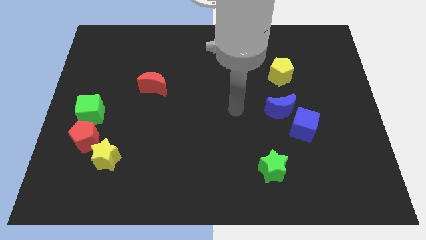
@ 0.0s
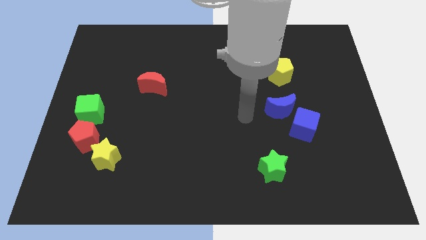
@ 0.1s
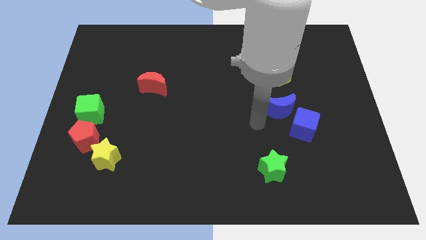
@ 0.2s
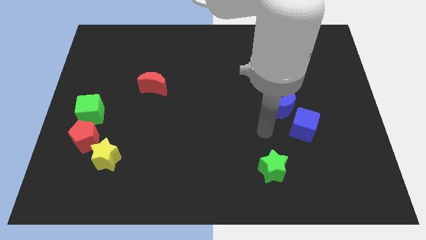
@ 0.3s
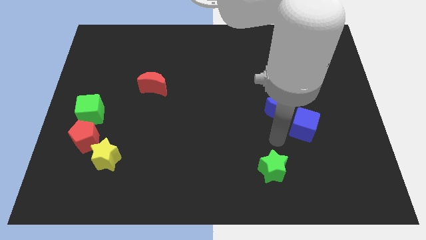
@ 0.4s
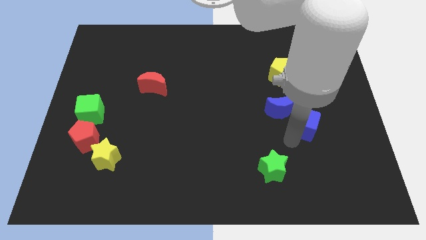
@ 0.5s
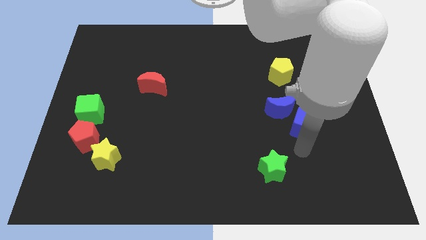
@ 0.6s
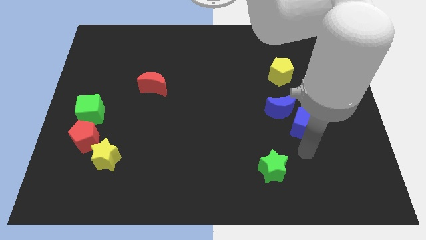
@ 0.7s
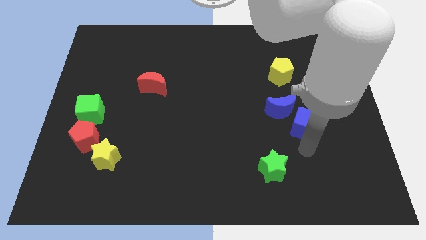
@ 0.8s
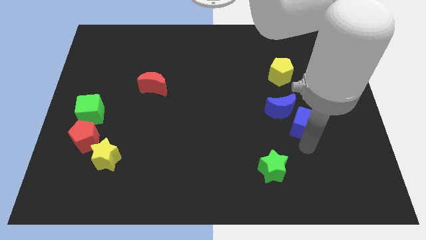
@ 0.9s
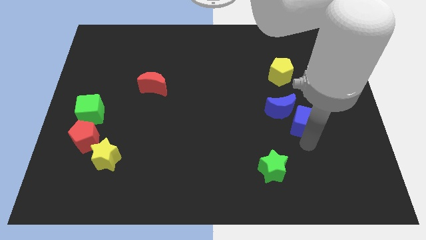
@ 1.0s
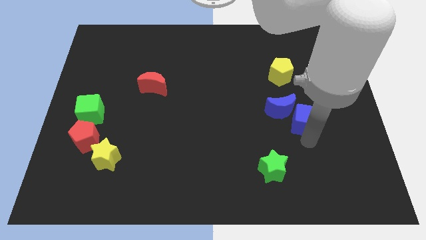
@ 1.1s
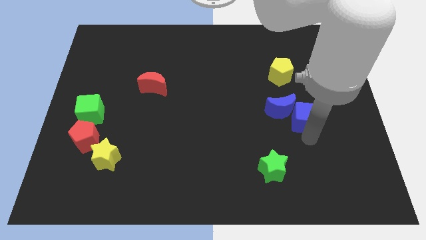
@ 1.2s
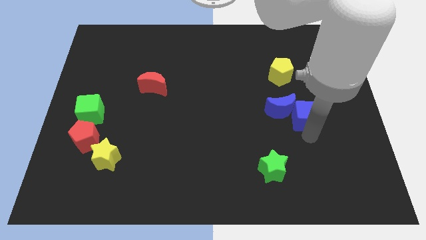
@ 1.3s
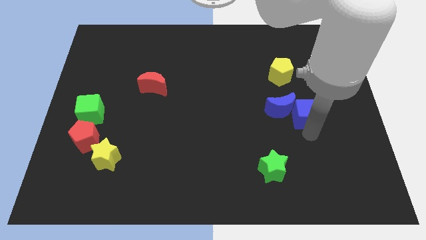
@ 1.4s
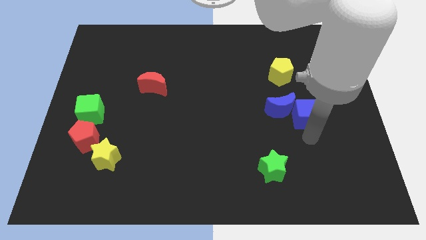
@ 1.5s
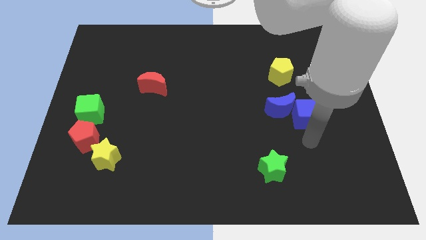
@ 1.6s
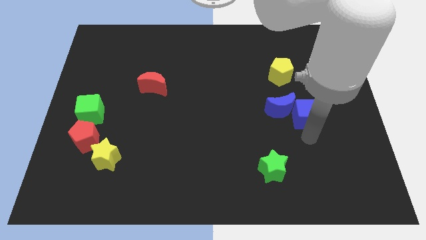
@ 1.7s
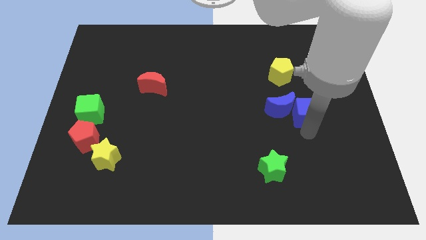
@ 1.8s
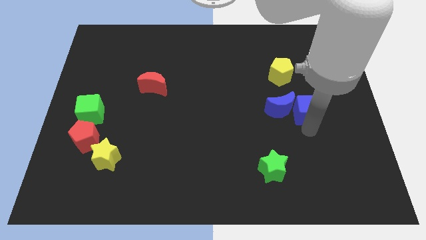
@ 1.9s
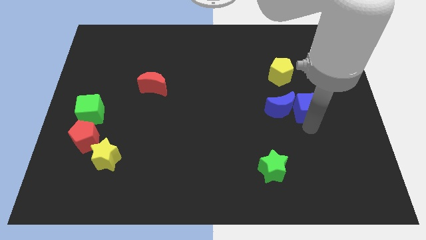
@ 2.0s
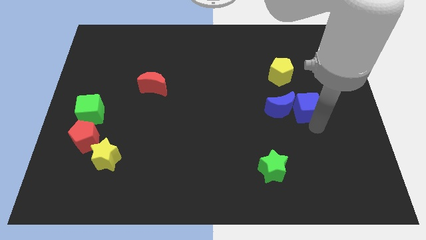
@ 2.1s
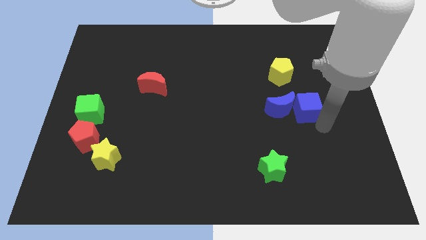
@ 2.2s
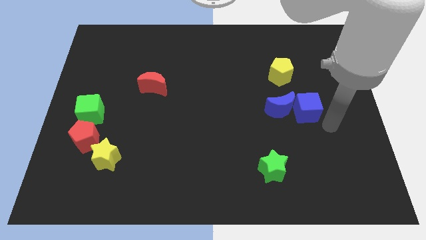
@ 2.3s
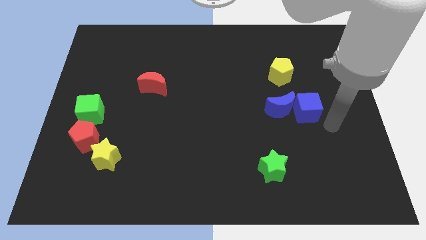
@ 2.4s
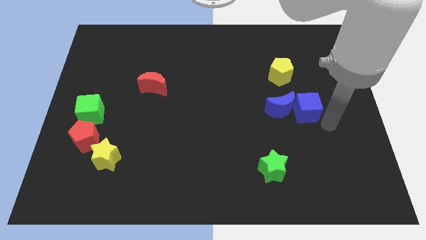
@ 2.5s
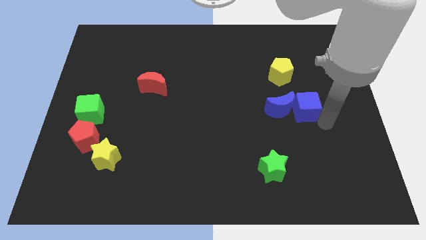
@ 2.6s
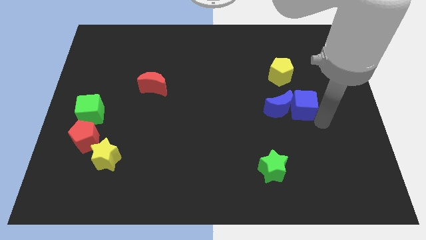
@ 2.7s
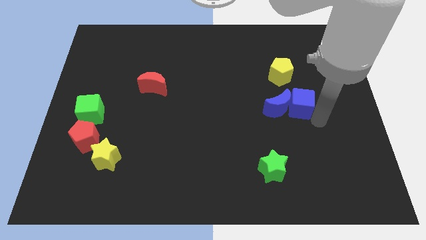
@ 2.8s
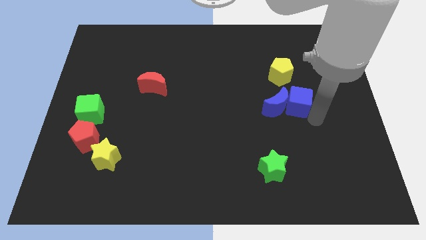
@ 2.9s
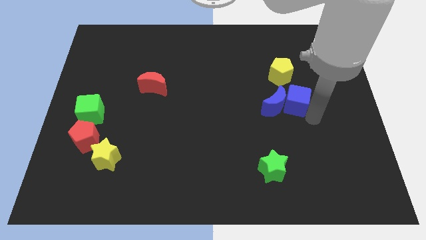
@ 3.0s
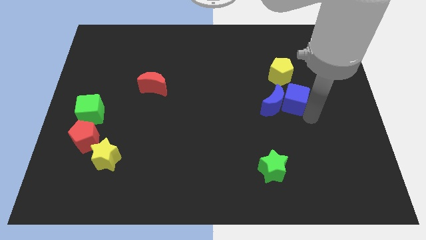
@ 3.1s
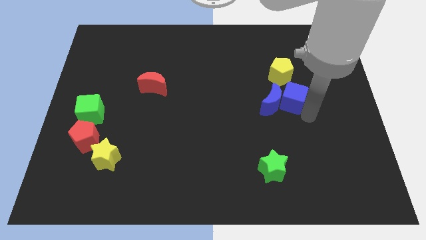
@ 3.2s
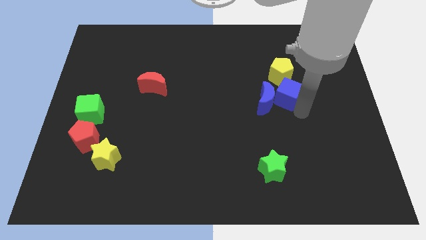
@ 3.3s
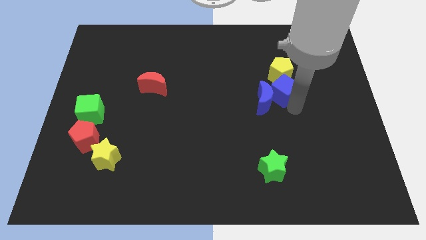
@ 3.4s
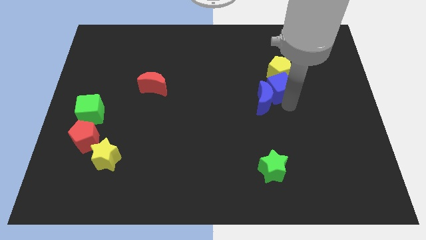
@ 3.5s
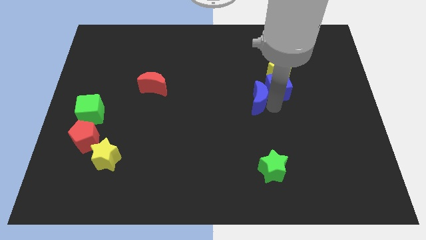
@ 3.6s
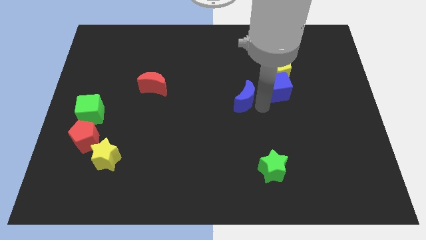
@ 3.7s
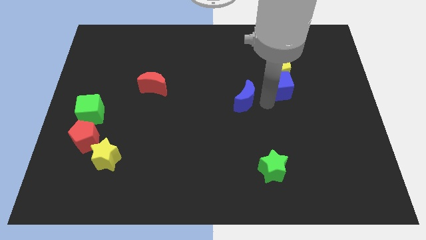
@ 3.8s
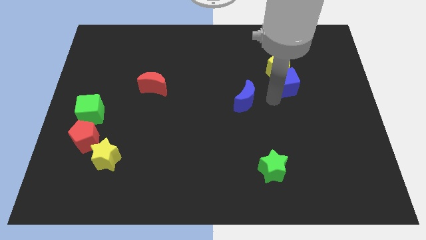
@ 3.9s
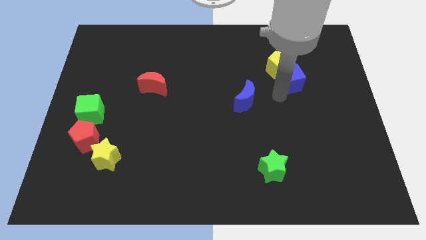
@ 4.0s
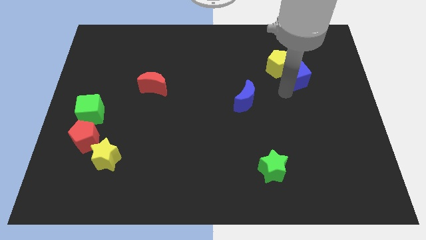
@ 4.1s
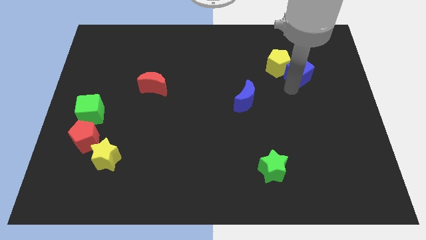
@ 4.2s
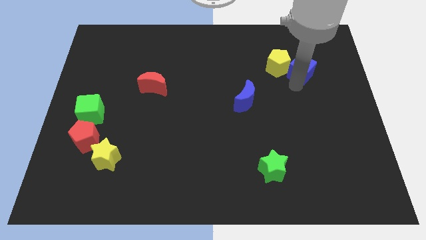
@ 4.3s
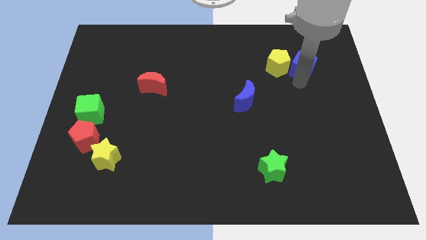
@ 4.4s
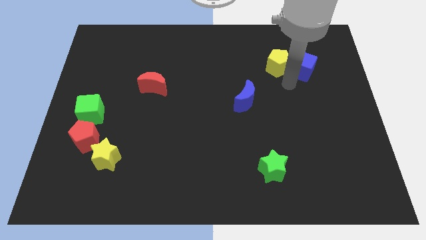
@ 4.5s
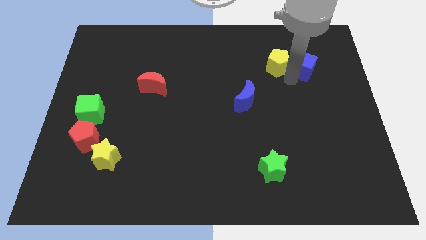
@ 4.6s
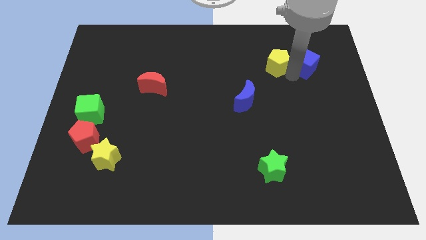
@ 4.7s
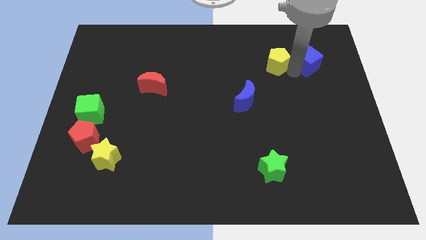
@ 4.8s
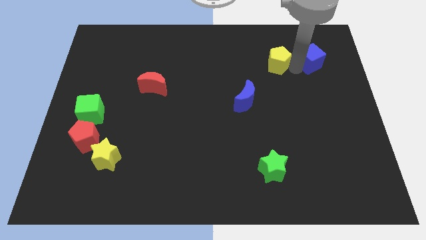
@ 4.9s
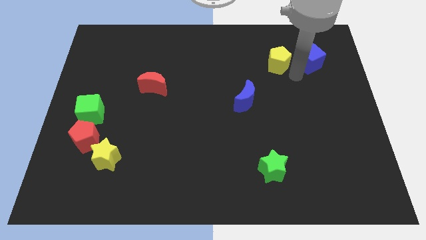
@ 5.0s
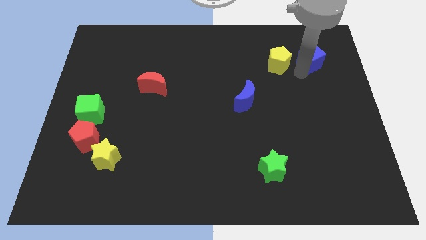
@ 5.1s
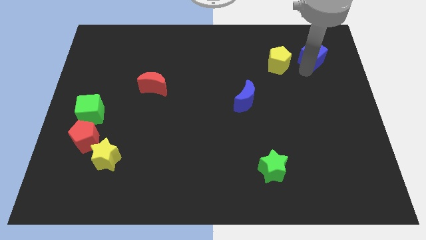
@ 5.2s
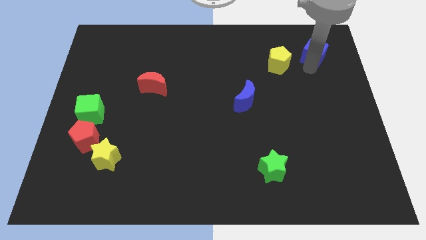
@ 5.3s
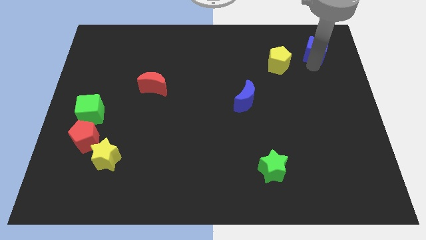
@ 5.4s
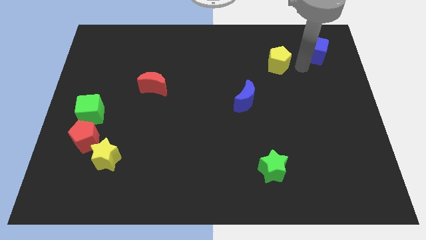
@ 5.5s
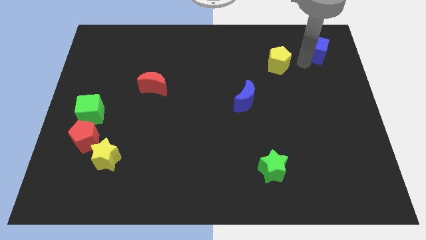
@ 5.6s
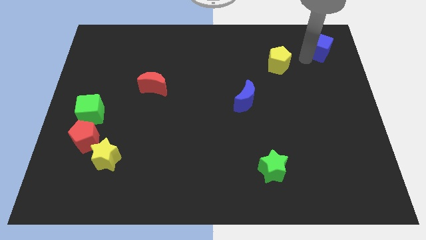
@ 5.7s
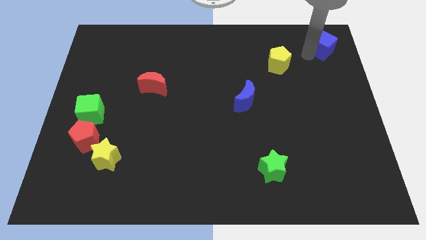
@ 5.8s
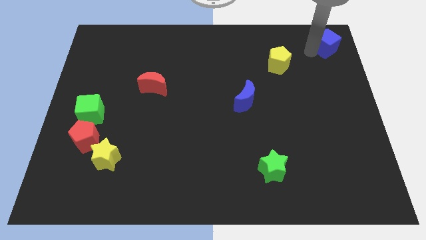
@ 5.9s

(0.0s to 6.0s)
slide the blue cube to the top right
